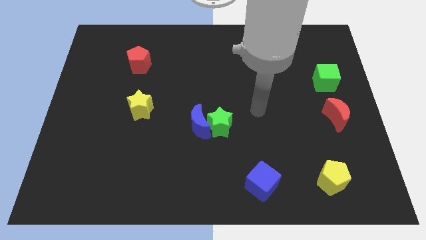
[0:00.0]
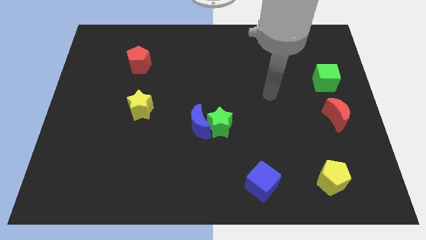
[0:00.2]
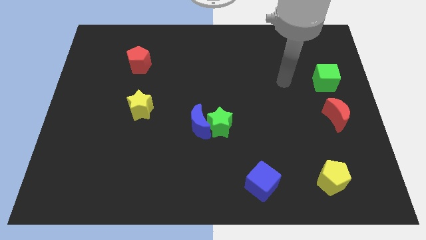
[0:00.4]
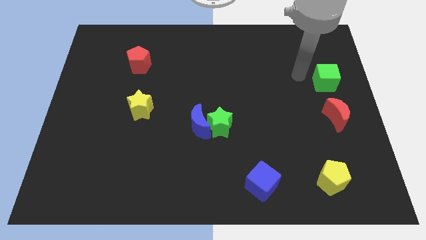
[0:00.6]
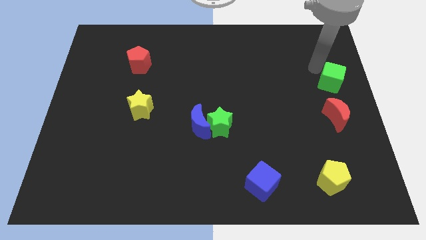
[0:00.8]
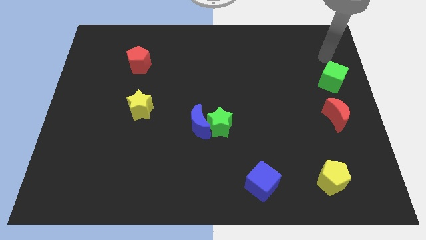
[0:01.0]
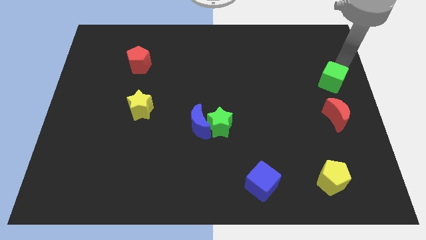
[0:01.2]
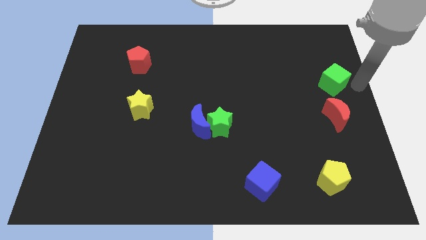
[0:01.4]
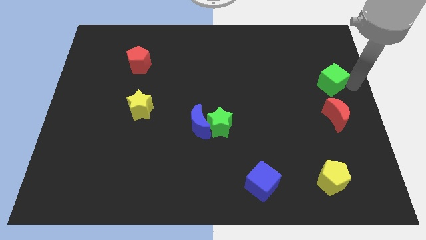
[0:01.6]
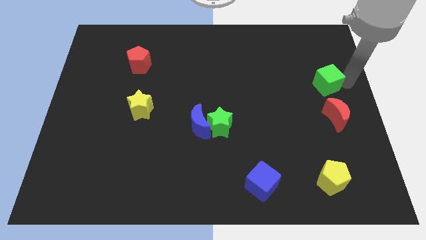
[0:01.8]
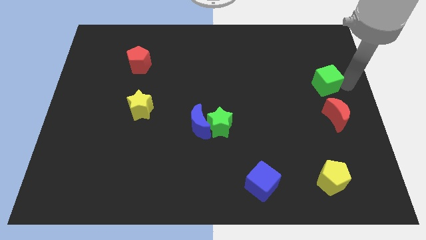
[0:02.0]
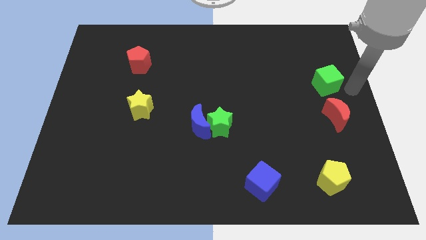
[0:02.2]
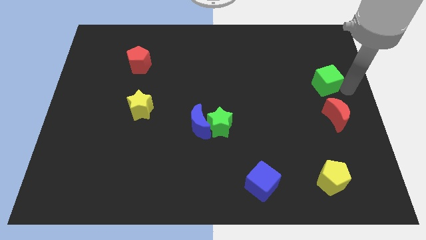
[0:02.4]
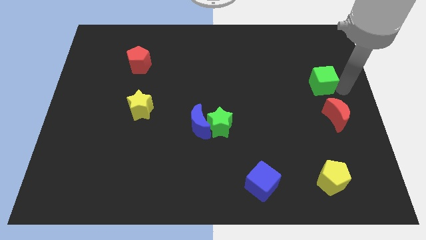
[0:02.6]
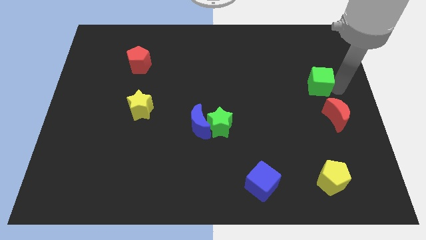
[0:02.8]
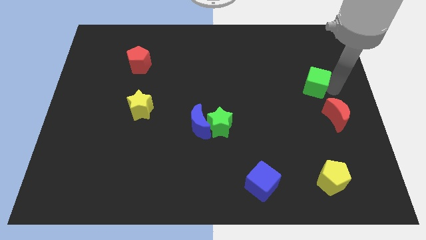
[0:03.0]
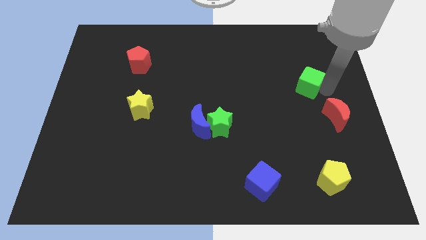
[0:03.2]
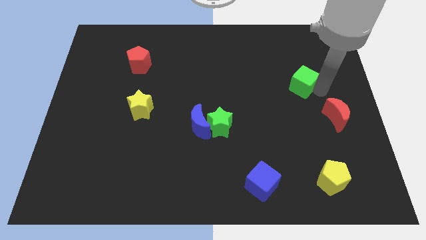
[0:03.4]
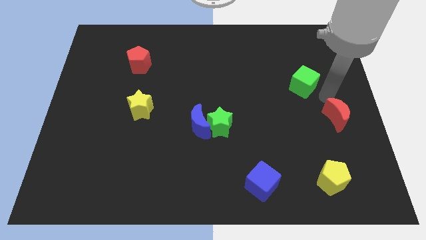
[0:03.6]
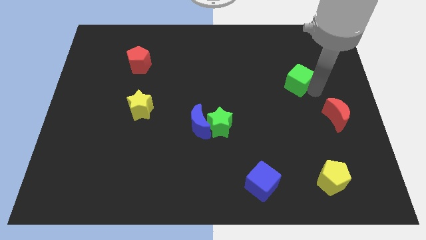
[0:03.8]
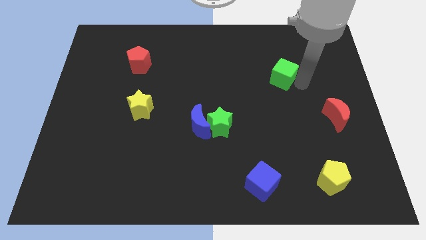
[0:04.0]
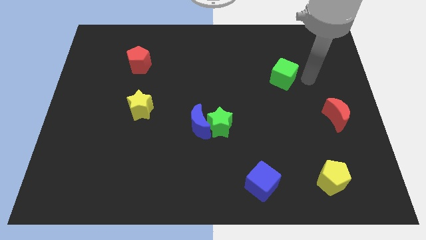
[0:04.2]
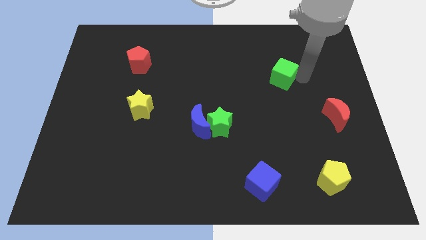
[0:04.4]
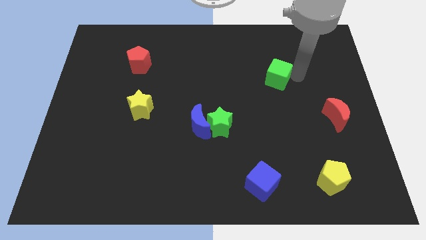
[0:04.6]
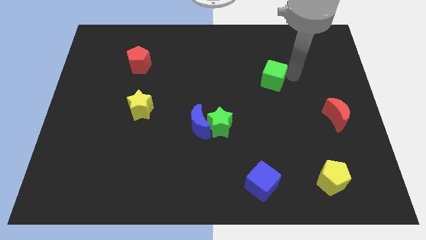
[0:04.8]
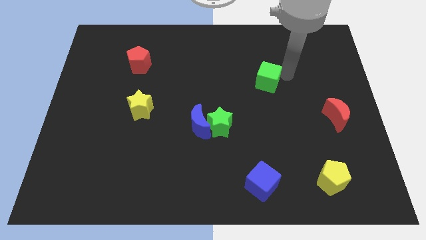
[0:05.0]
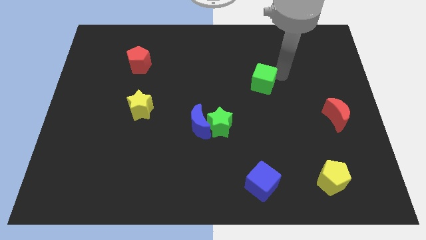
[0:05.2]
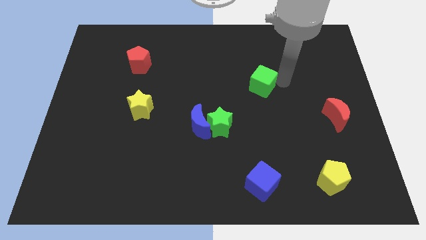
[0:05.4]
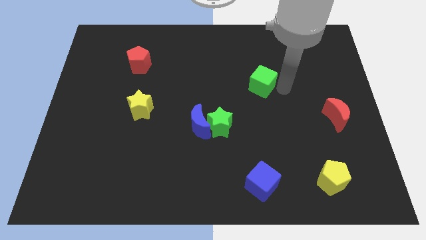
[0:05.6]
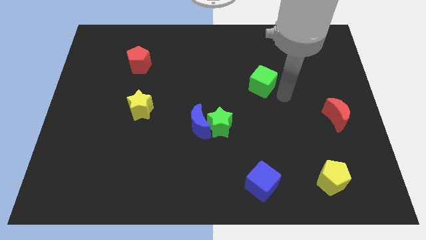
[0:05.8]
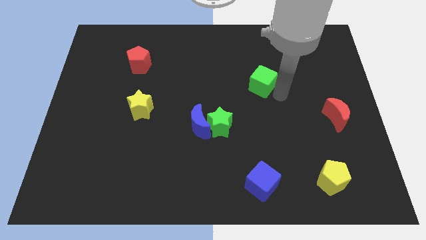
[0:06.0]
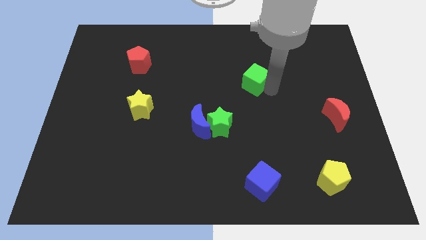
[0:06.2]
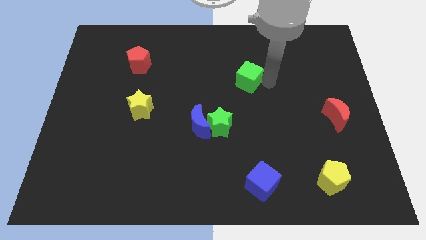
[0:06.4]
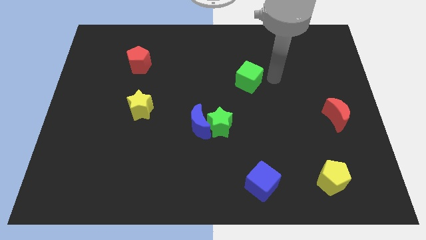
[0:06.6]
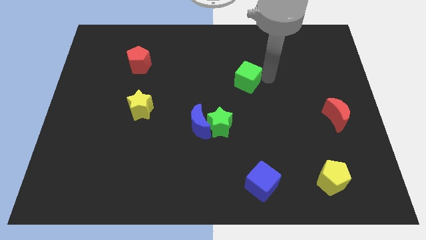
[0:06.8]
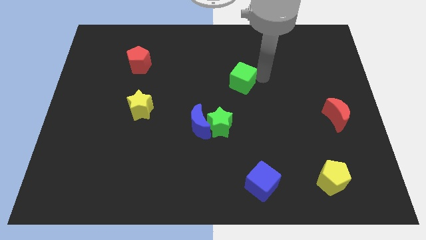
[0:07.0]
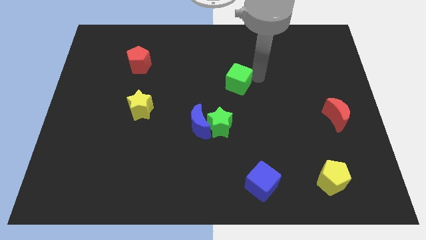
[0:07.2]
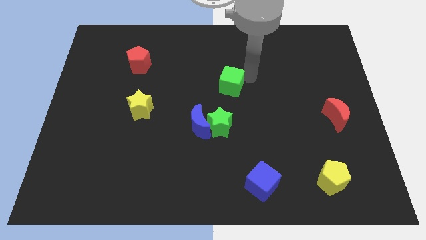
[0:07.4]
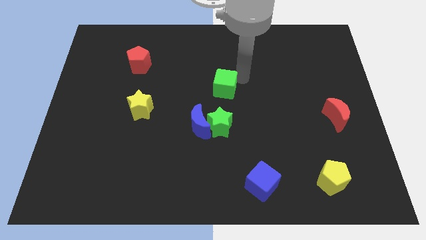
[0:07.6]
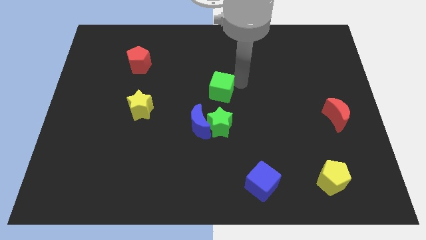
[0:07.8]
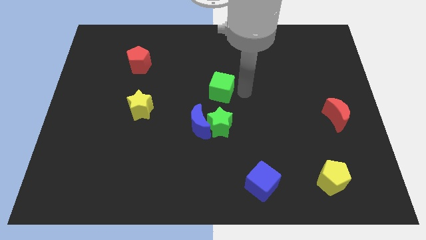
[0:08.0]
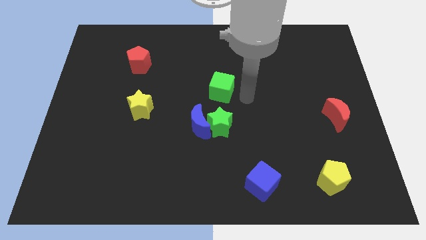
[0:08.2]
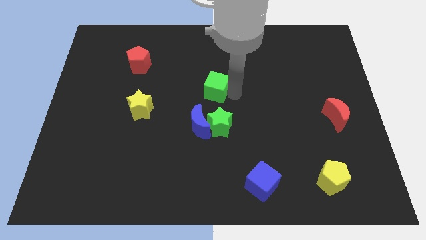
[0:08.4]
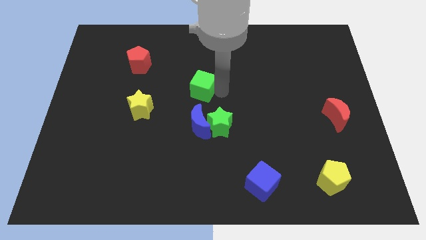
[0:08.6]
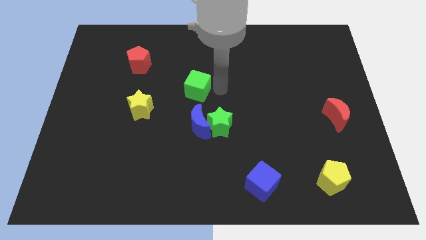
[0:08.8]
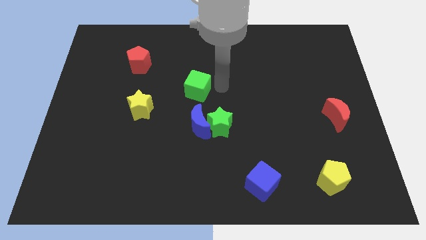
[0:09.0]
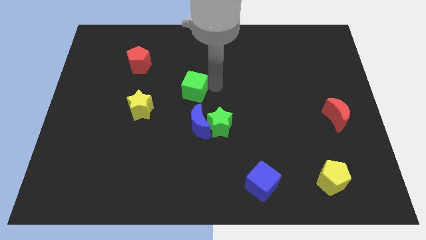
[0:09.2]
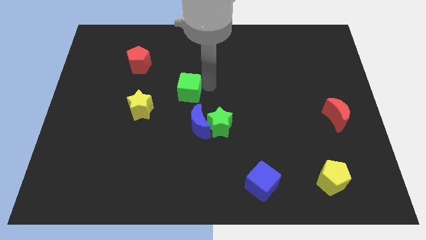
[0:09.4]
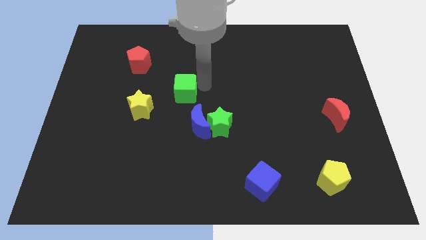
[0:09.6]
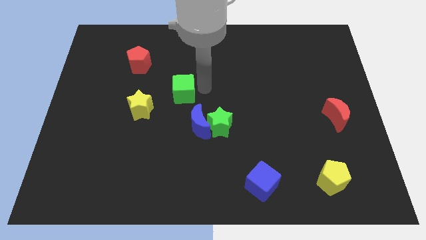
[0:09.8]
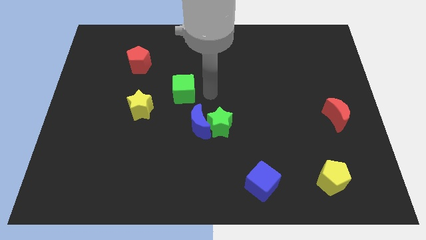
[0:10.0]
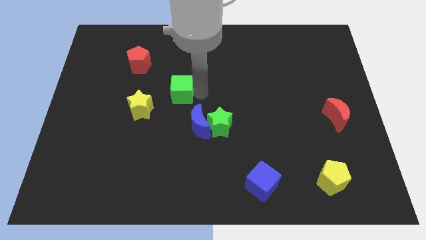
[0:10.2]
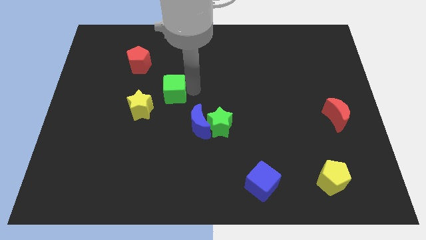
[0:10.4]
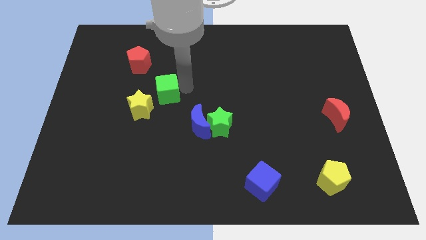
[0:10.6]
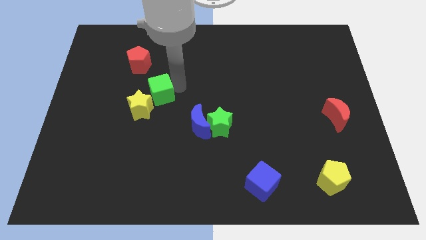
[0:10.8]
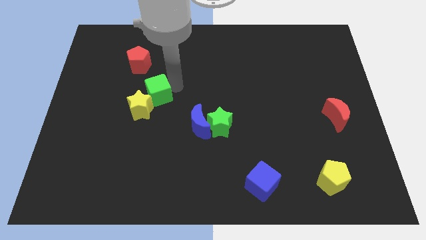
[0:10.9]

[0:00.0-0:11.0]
slide the green cube close to the yellow star

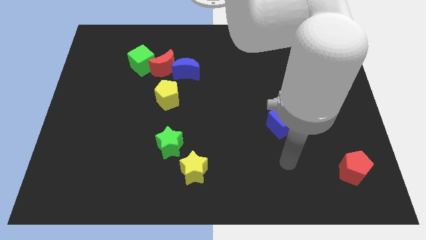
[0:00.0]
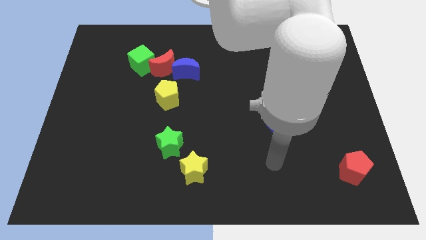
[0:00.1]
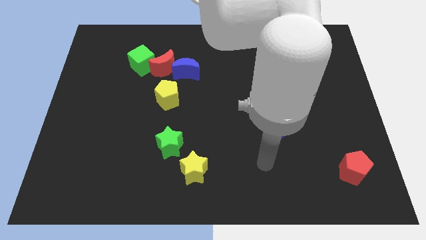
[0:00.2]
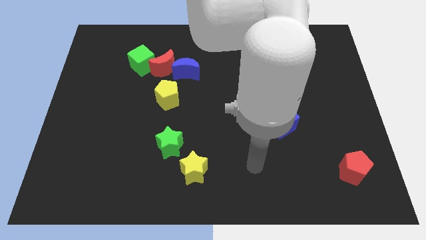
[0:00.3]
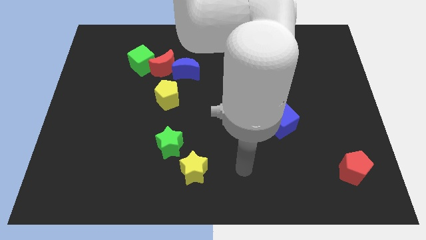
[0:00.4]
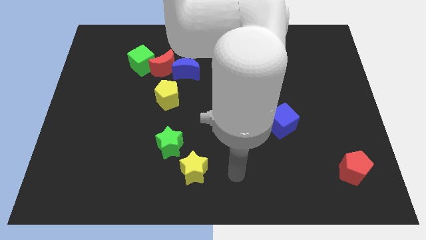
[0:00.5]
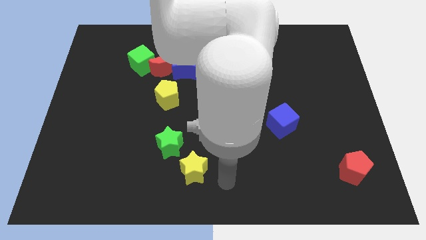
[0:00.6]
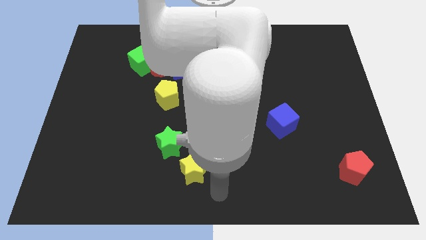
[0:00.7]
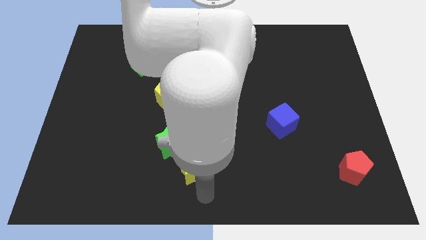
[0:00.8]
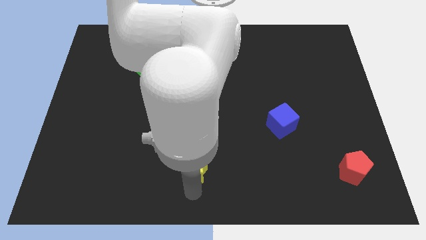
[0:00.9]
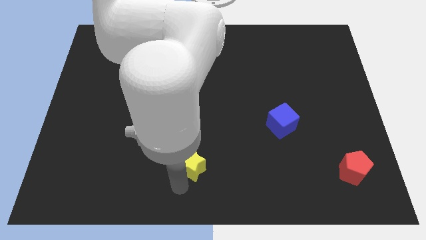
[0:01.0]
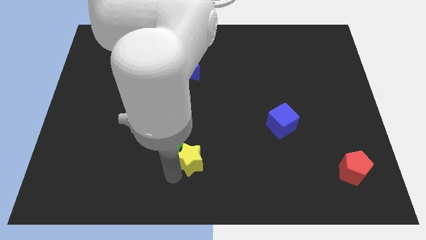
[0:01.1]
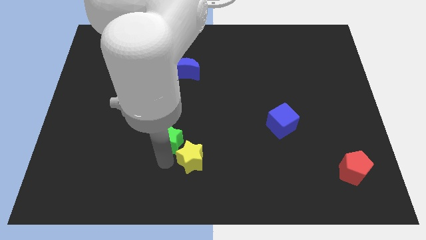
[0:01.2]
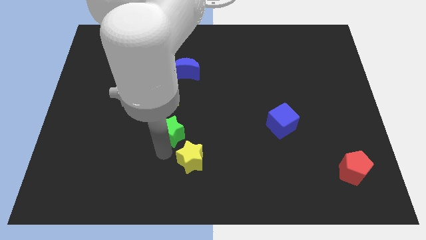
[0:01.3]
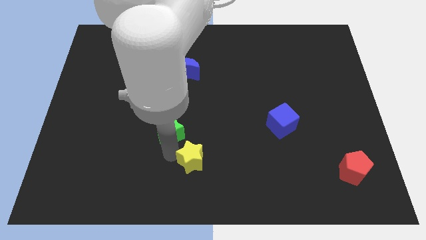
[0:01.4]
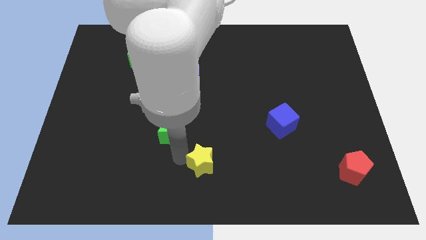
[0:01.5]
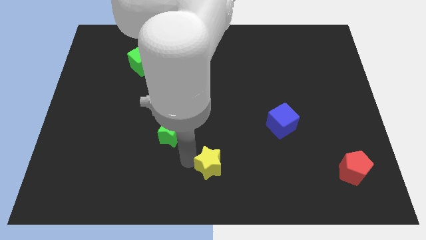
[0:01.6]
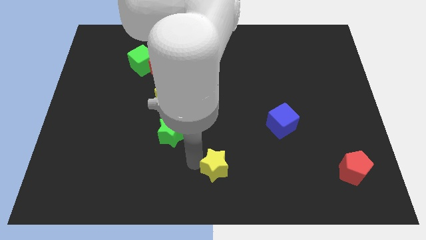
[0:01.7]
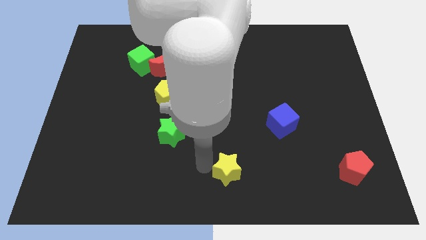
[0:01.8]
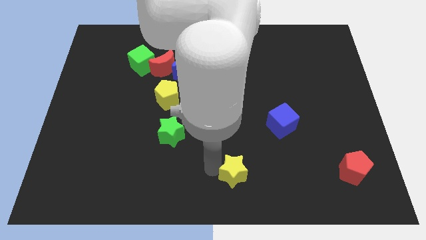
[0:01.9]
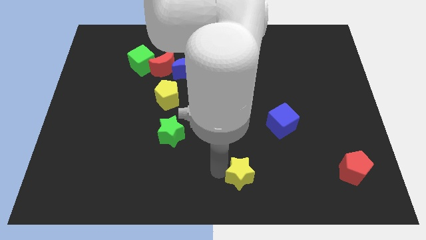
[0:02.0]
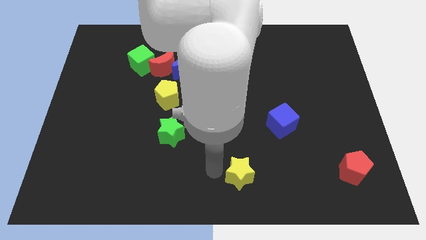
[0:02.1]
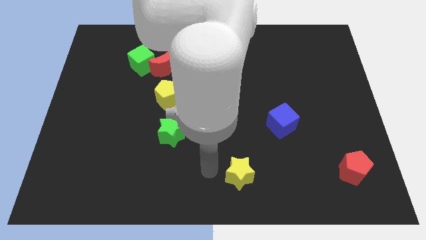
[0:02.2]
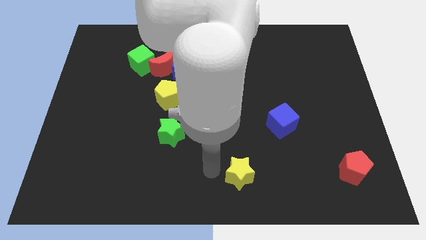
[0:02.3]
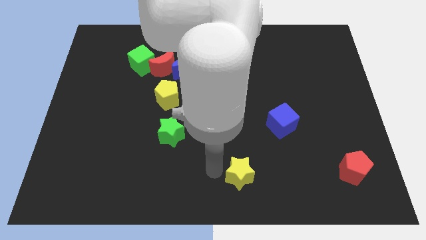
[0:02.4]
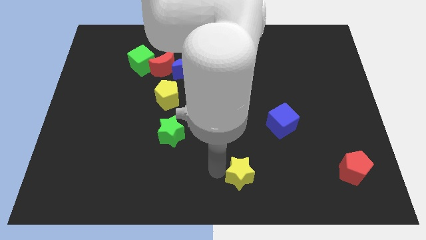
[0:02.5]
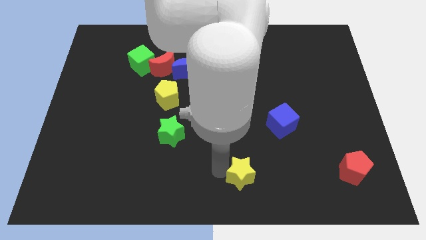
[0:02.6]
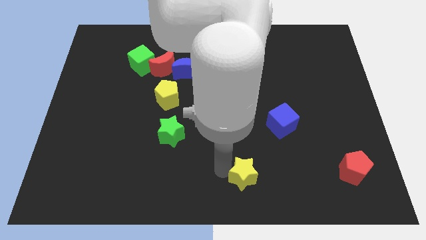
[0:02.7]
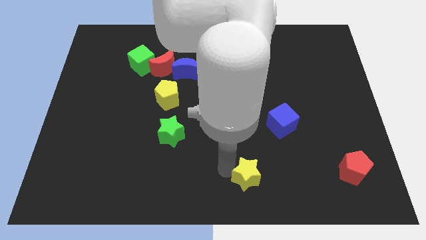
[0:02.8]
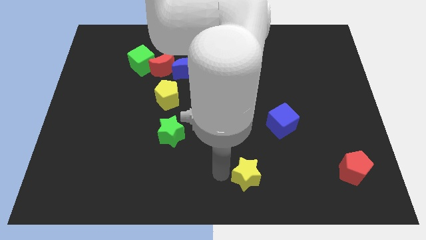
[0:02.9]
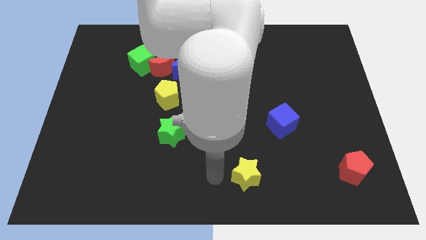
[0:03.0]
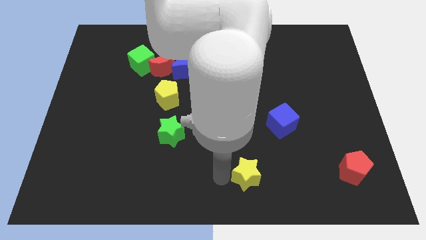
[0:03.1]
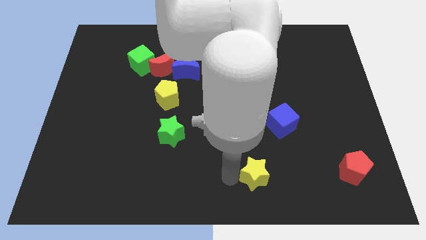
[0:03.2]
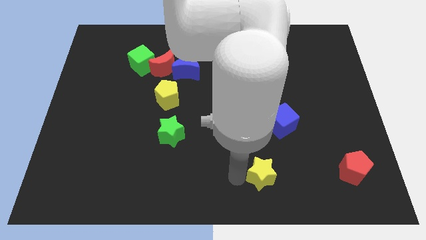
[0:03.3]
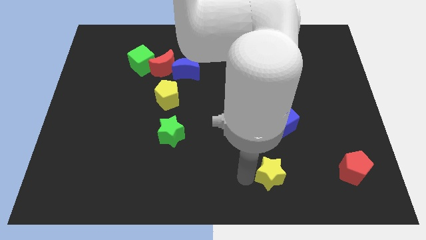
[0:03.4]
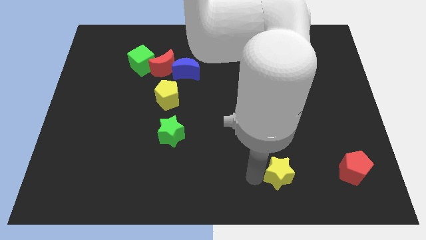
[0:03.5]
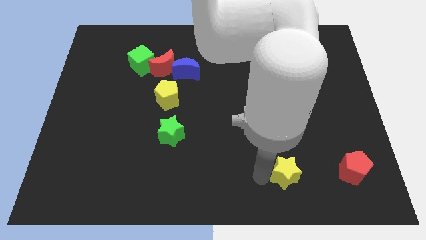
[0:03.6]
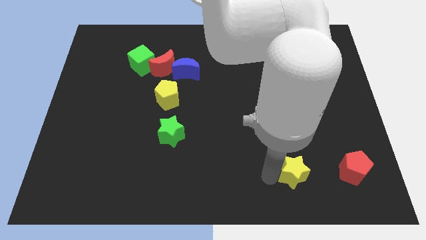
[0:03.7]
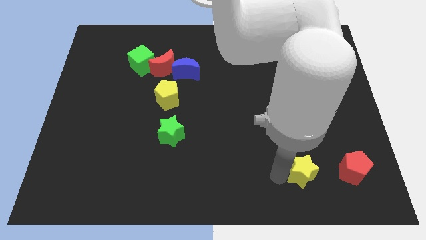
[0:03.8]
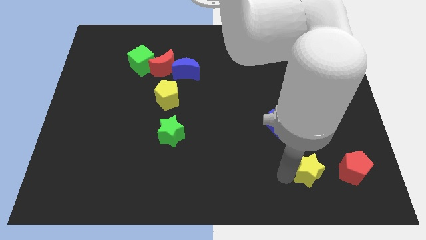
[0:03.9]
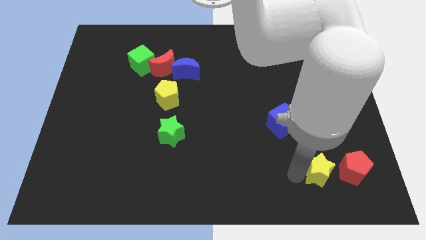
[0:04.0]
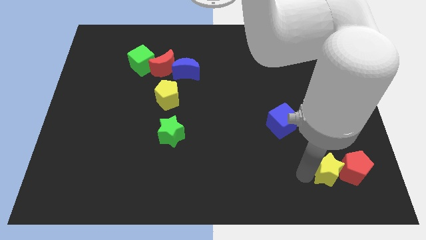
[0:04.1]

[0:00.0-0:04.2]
slide the yellow star to the red pentagon
